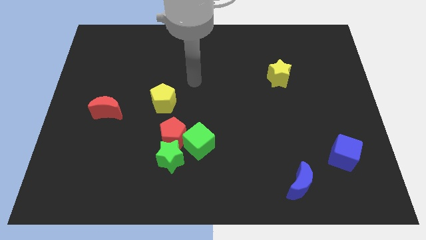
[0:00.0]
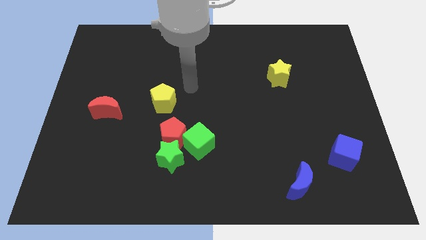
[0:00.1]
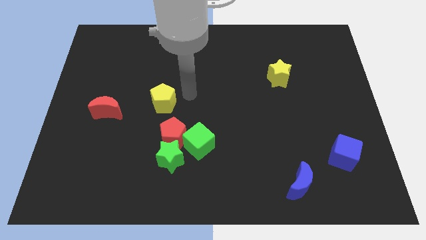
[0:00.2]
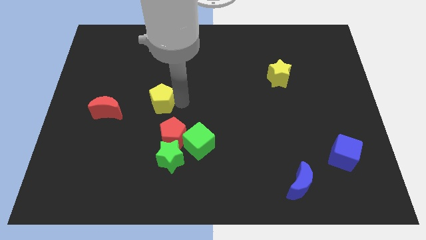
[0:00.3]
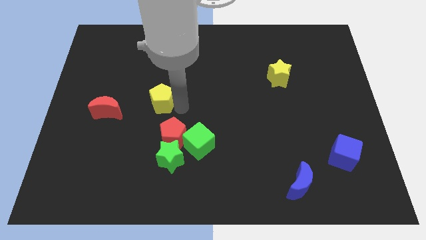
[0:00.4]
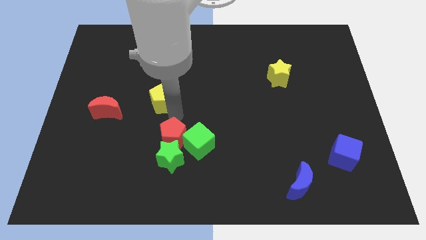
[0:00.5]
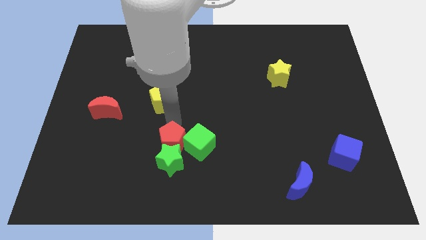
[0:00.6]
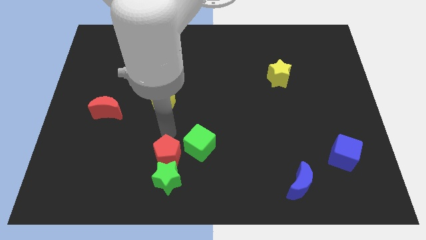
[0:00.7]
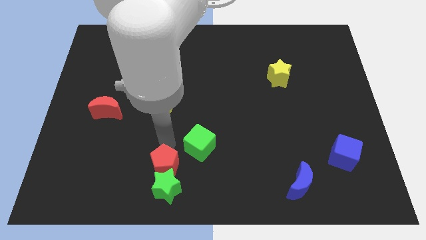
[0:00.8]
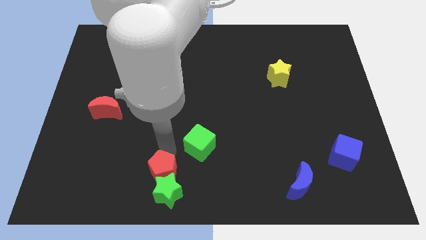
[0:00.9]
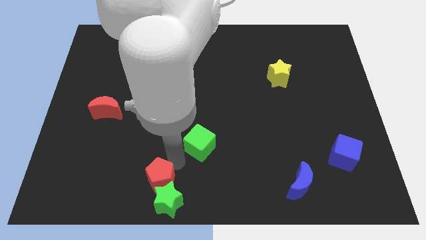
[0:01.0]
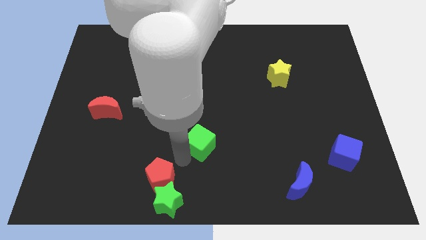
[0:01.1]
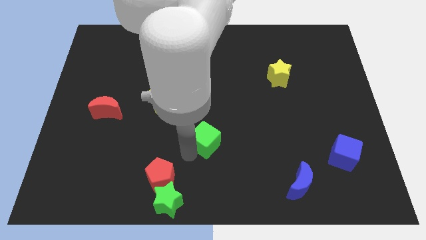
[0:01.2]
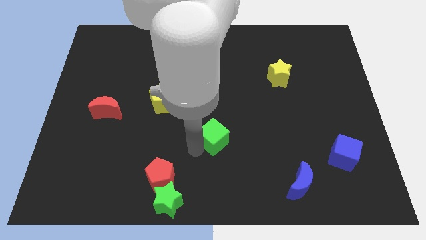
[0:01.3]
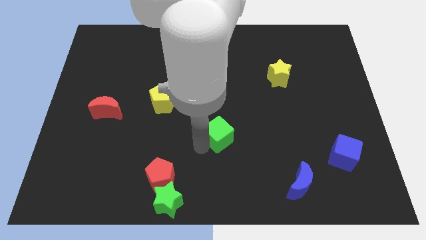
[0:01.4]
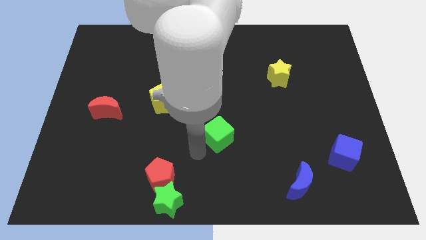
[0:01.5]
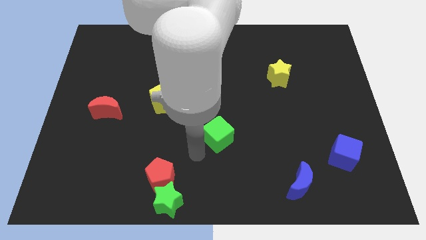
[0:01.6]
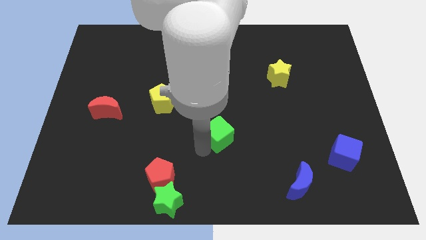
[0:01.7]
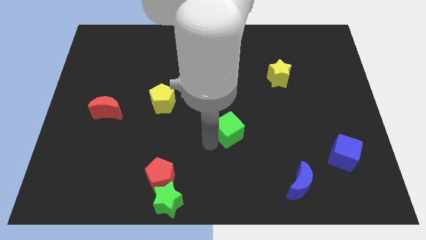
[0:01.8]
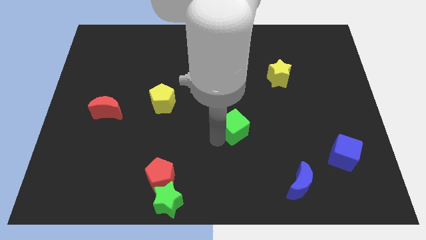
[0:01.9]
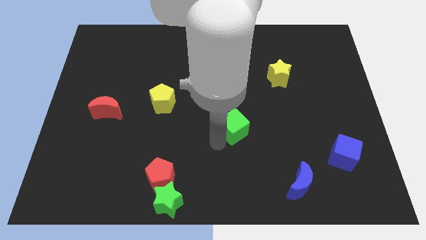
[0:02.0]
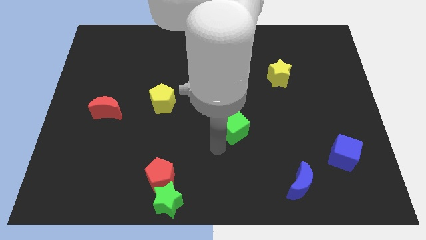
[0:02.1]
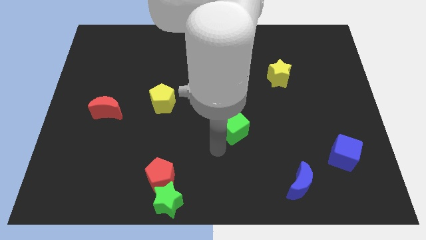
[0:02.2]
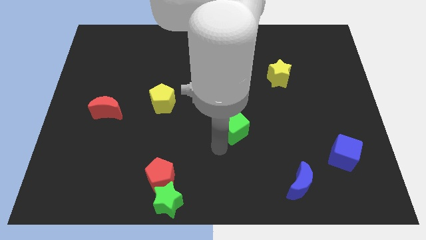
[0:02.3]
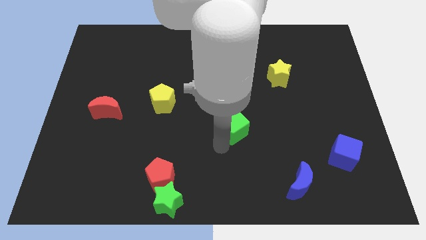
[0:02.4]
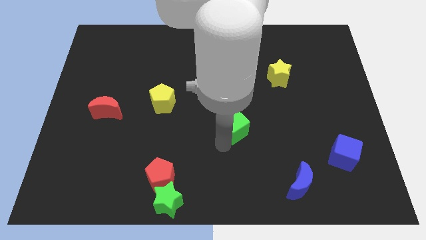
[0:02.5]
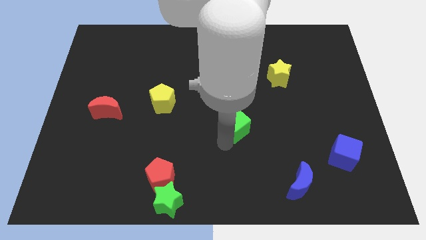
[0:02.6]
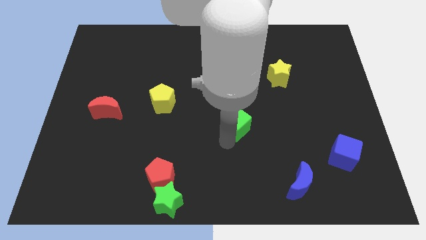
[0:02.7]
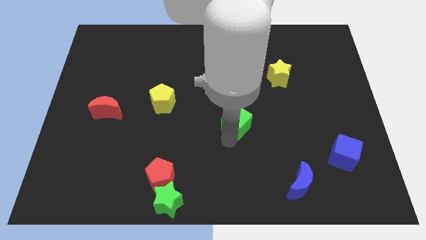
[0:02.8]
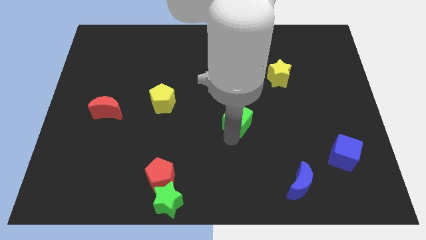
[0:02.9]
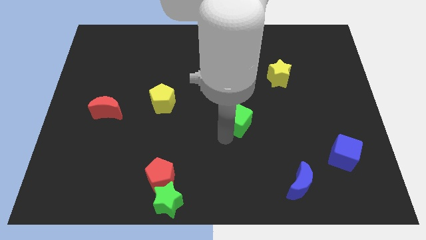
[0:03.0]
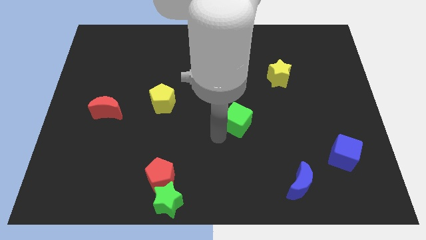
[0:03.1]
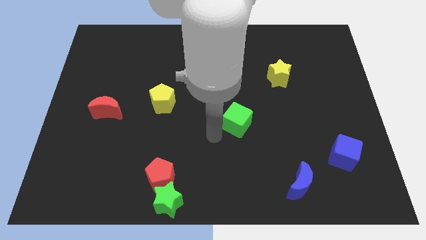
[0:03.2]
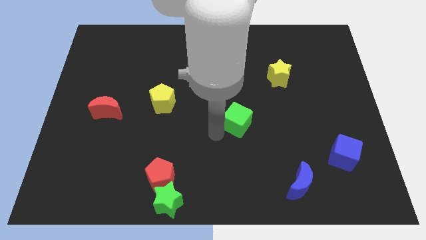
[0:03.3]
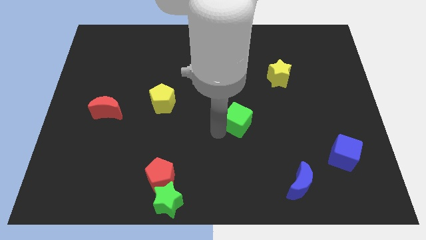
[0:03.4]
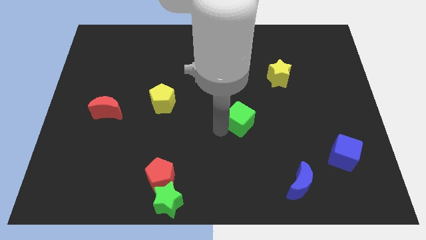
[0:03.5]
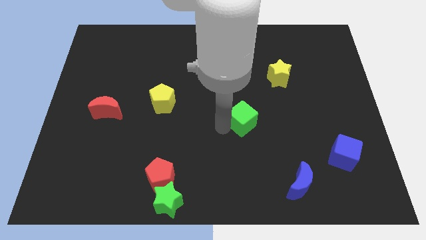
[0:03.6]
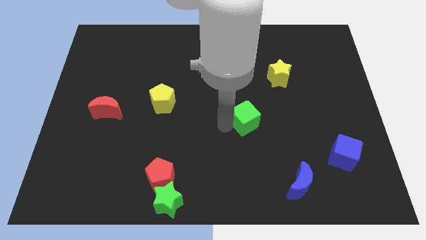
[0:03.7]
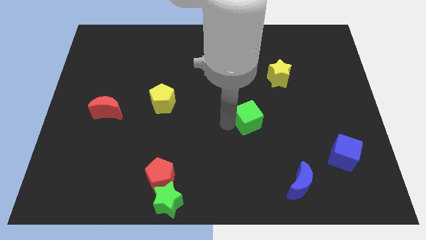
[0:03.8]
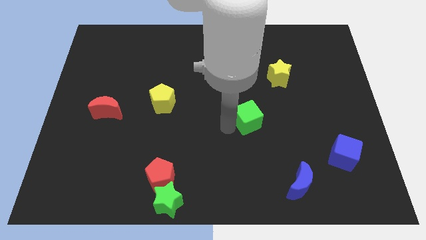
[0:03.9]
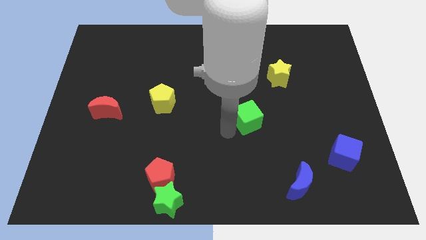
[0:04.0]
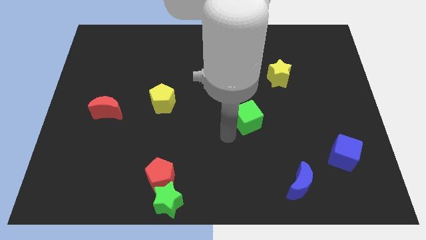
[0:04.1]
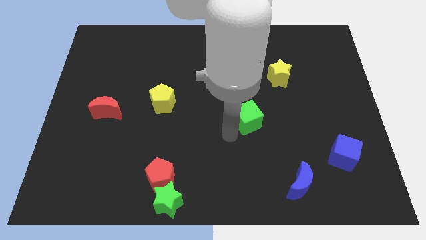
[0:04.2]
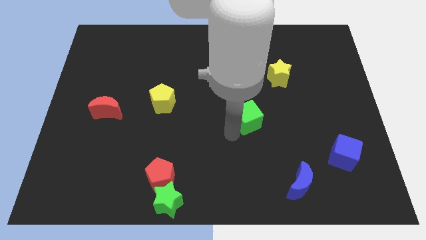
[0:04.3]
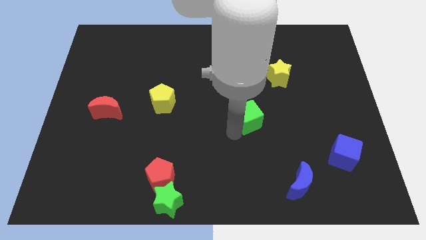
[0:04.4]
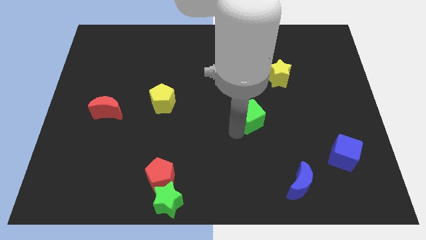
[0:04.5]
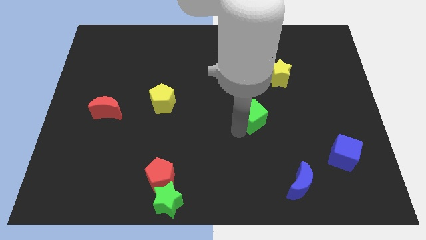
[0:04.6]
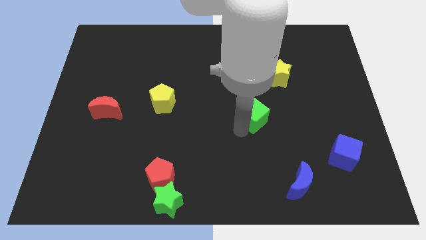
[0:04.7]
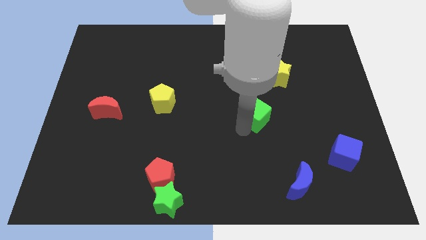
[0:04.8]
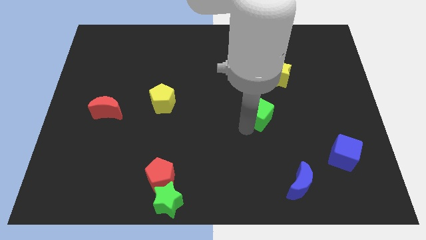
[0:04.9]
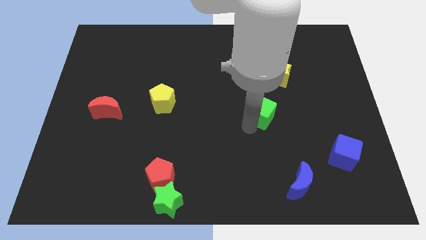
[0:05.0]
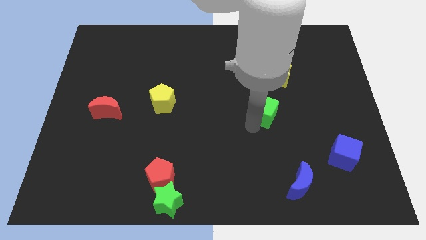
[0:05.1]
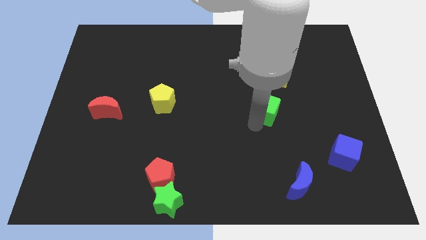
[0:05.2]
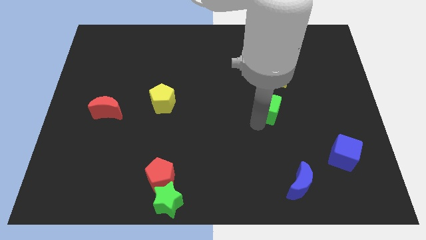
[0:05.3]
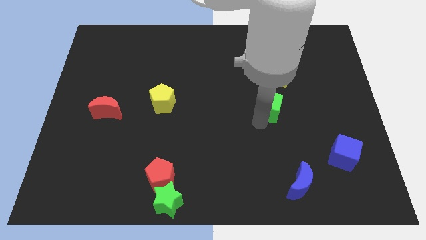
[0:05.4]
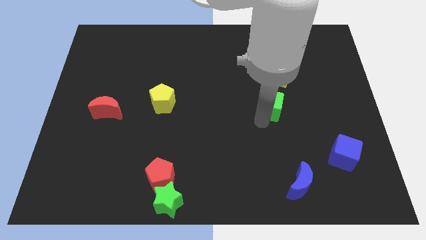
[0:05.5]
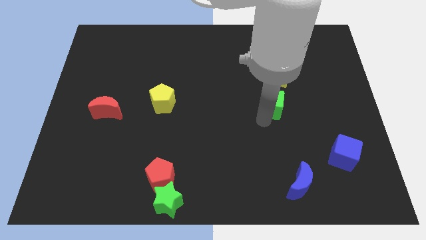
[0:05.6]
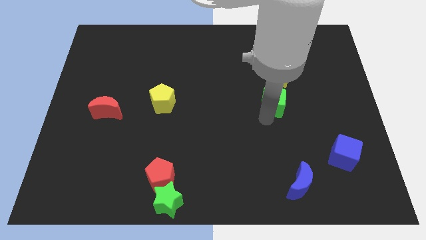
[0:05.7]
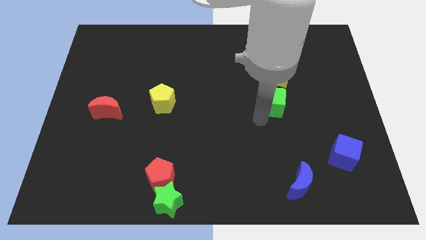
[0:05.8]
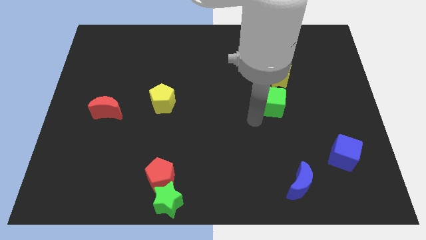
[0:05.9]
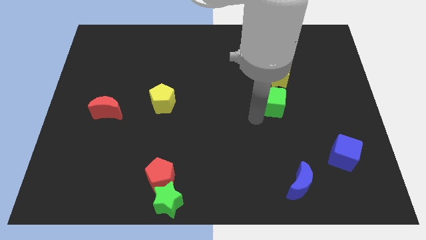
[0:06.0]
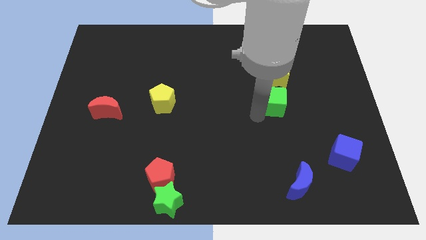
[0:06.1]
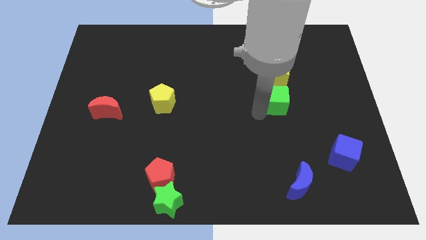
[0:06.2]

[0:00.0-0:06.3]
move the green cube up and right diagonally

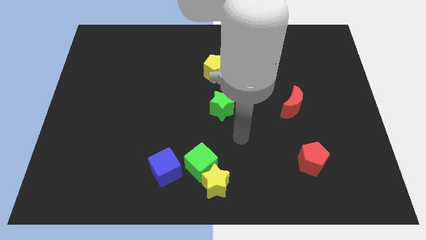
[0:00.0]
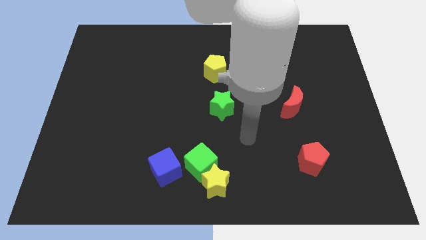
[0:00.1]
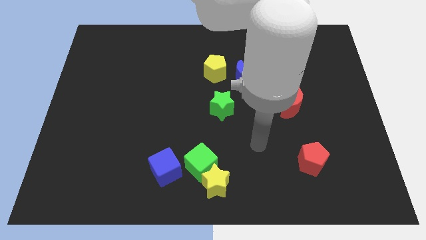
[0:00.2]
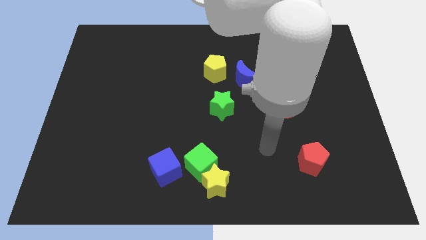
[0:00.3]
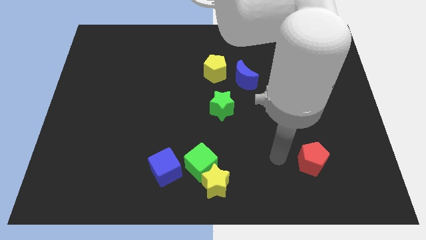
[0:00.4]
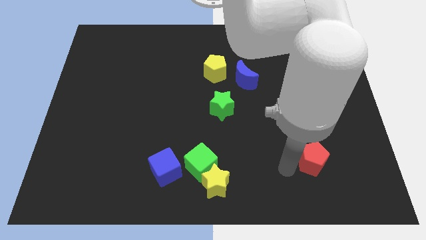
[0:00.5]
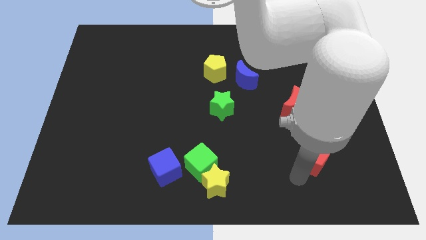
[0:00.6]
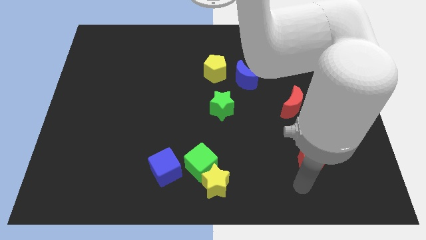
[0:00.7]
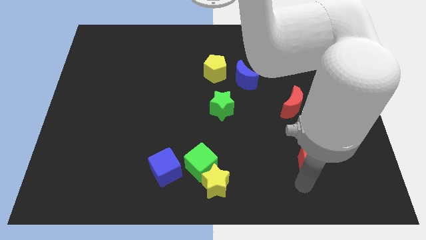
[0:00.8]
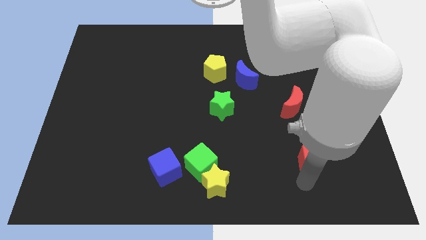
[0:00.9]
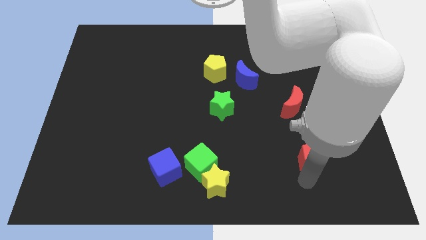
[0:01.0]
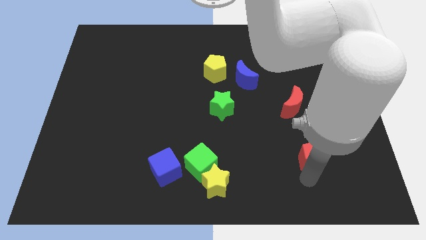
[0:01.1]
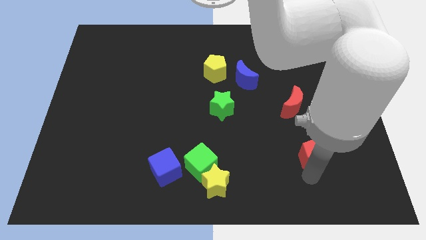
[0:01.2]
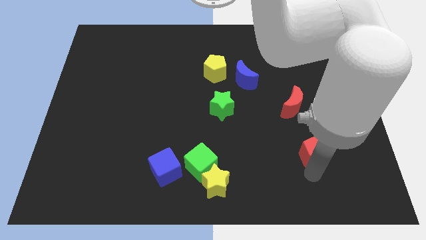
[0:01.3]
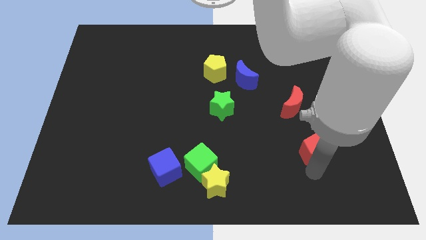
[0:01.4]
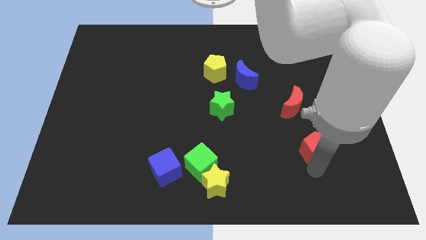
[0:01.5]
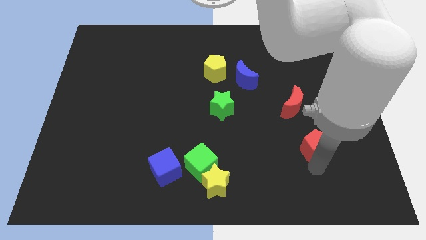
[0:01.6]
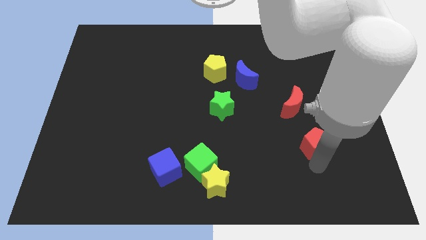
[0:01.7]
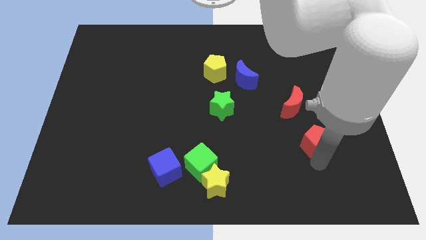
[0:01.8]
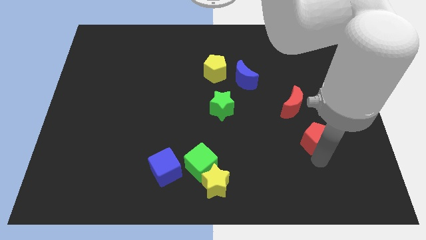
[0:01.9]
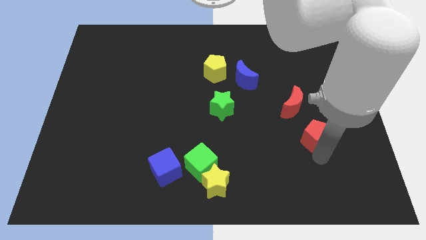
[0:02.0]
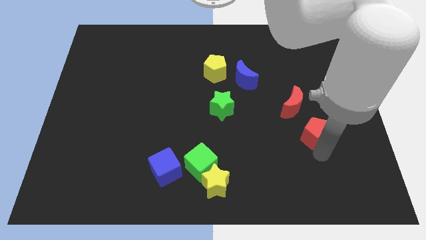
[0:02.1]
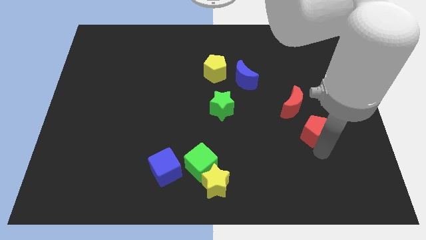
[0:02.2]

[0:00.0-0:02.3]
slide the red pentagon upwards somewhat
